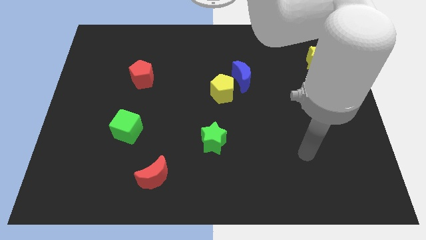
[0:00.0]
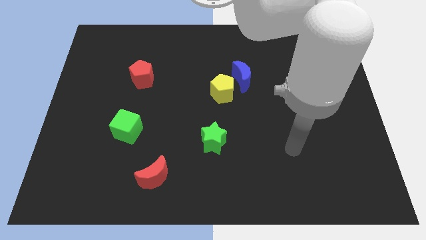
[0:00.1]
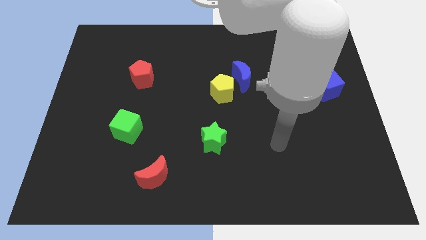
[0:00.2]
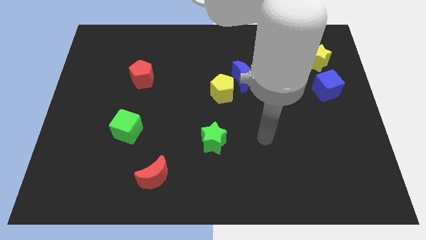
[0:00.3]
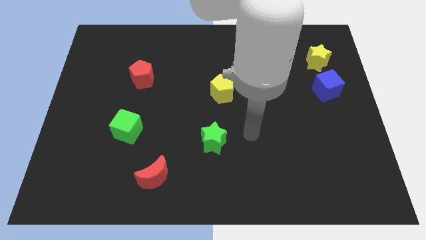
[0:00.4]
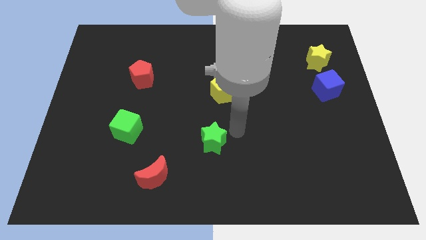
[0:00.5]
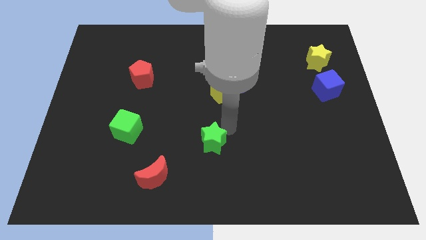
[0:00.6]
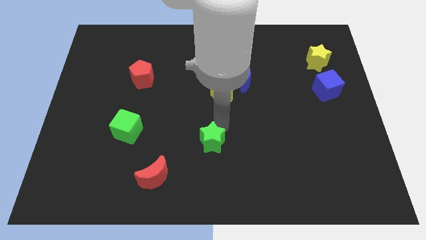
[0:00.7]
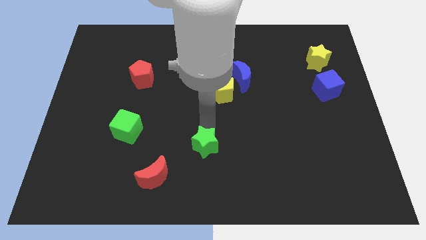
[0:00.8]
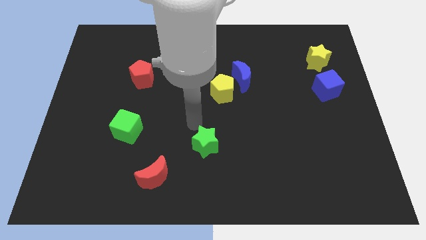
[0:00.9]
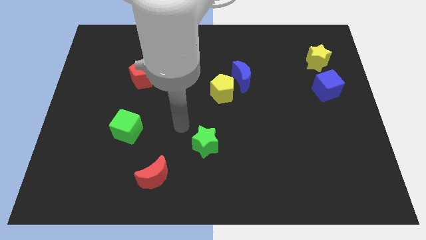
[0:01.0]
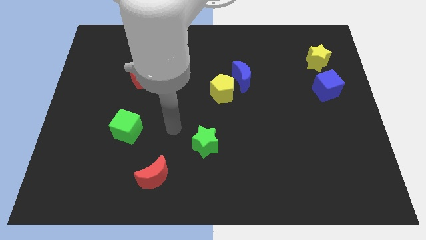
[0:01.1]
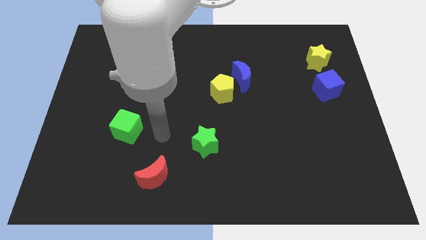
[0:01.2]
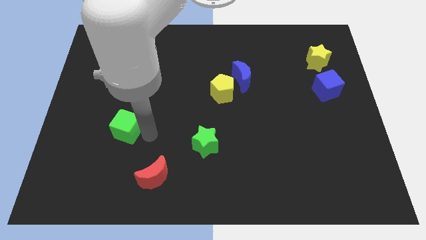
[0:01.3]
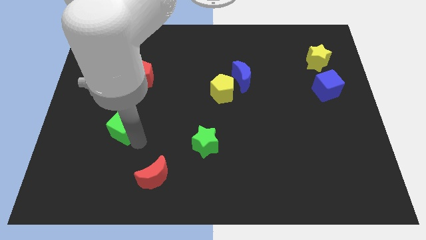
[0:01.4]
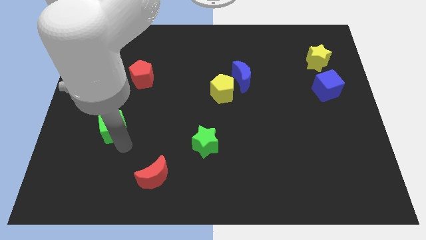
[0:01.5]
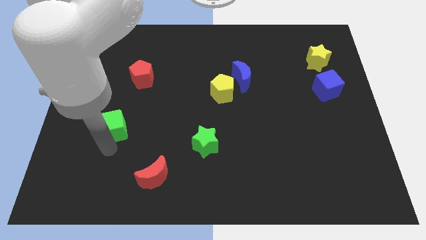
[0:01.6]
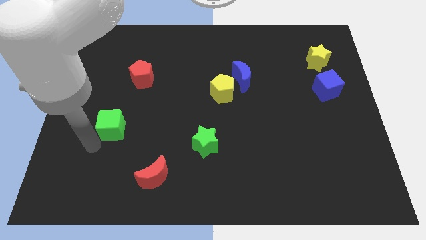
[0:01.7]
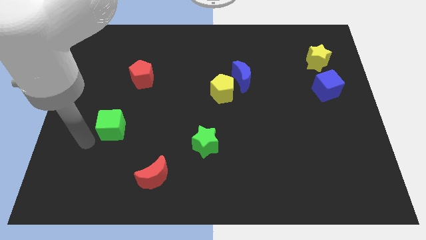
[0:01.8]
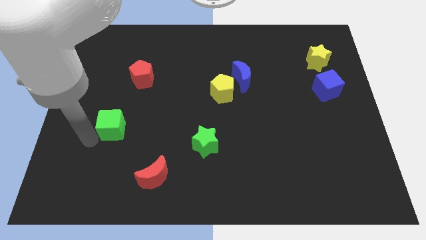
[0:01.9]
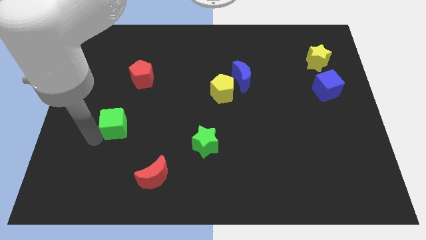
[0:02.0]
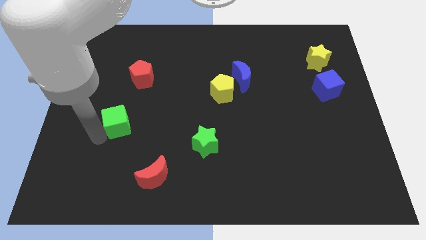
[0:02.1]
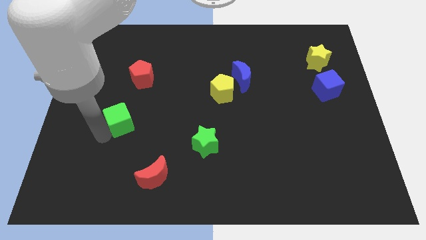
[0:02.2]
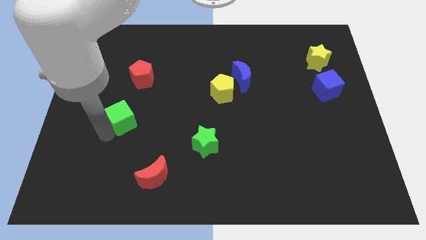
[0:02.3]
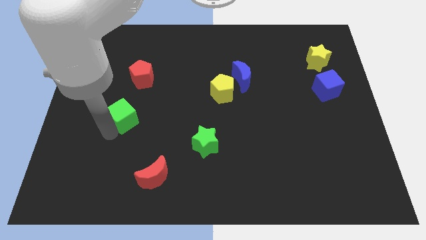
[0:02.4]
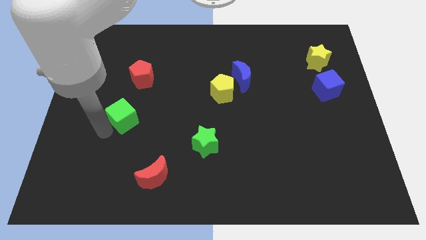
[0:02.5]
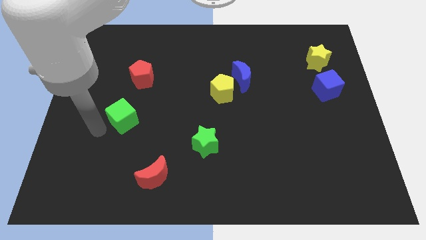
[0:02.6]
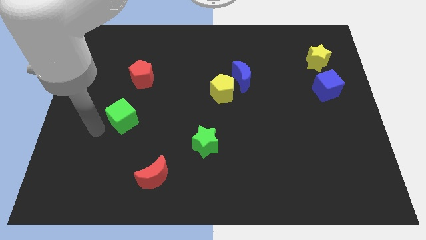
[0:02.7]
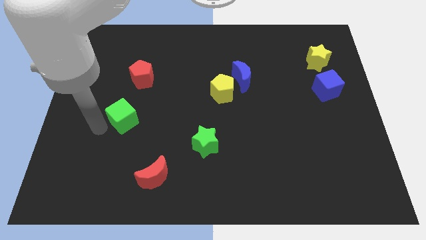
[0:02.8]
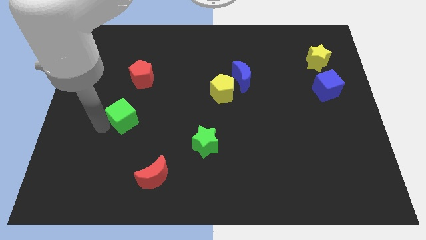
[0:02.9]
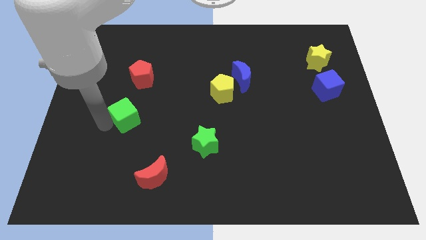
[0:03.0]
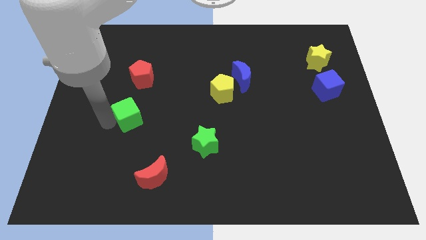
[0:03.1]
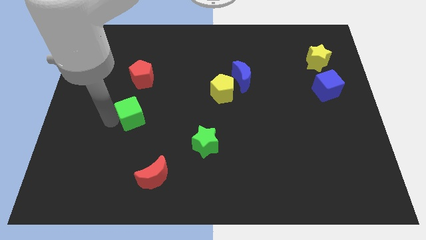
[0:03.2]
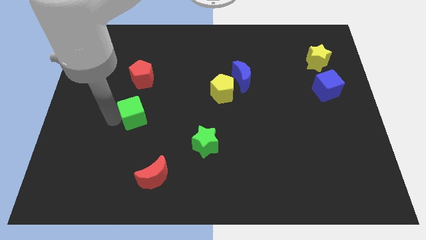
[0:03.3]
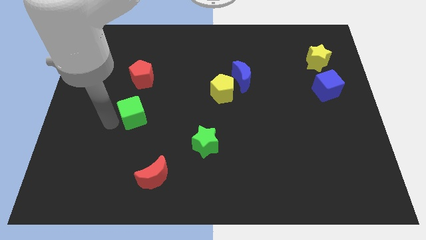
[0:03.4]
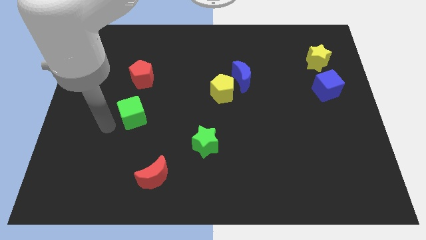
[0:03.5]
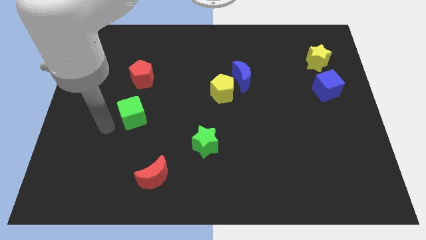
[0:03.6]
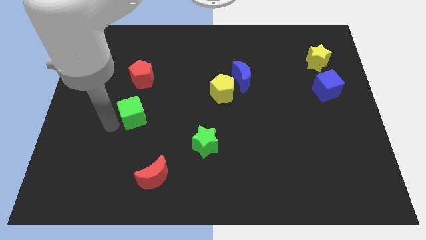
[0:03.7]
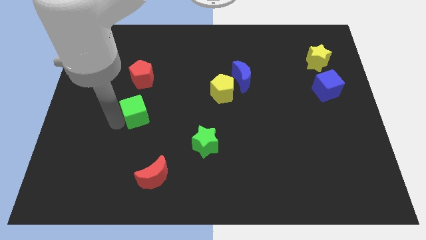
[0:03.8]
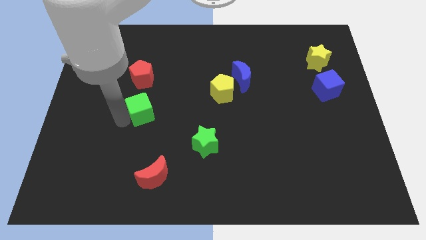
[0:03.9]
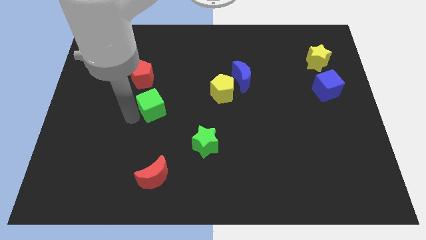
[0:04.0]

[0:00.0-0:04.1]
slightly push the green cube upwards and right diagonally

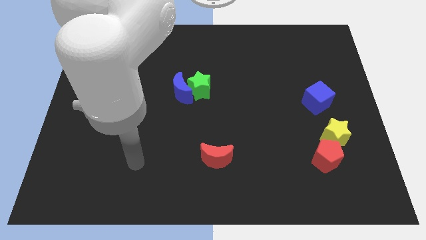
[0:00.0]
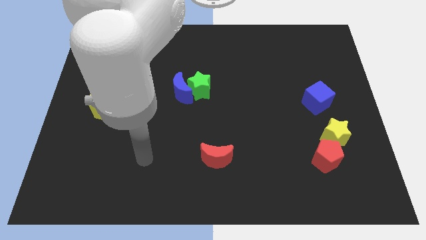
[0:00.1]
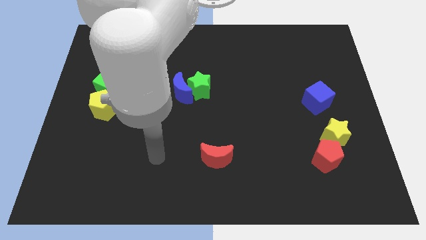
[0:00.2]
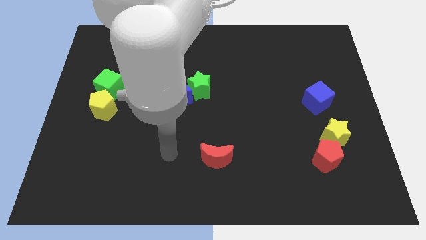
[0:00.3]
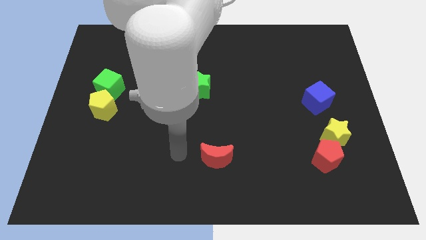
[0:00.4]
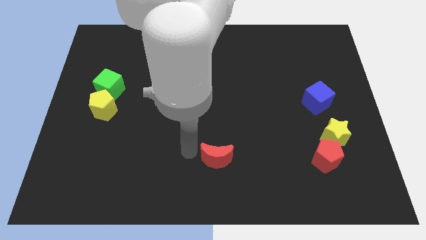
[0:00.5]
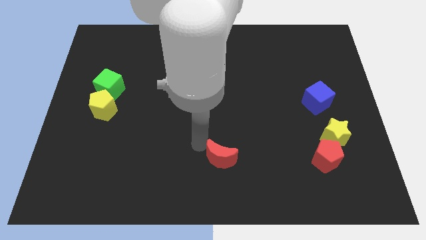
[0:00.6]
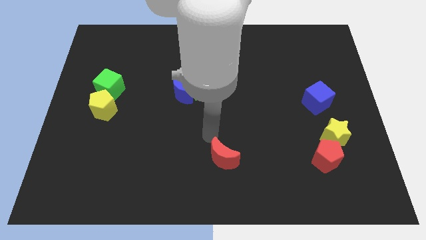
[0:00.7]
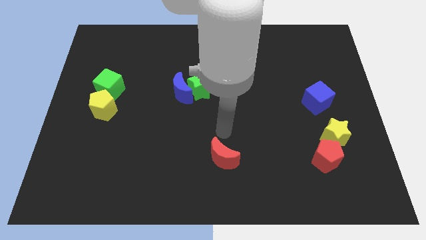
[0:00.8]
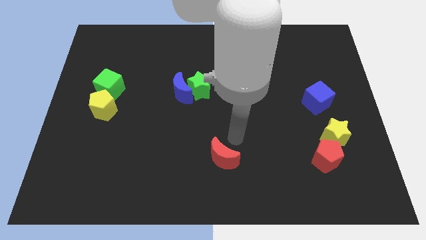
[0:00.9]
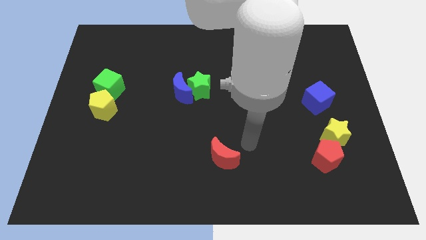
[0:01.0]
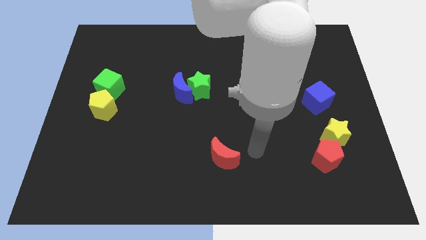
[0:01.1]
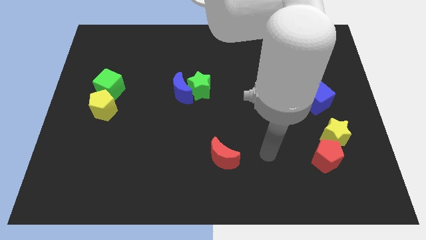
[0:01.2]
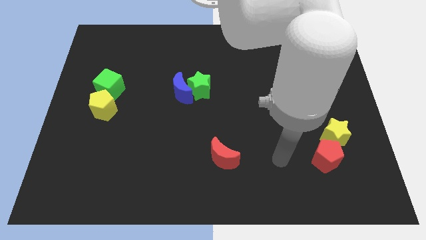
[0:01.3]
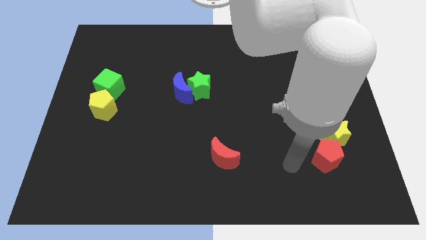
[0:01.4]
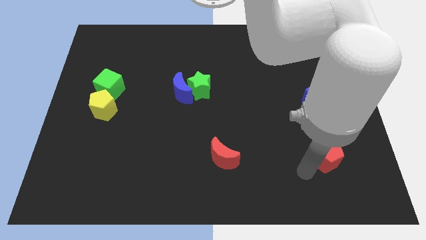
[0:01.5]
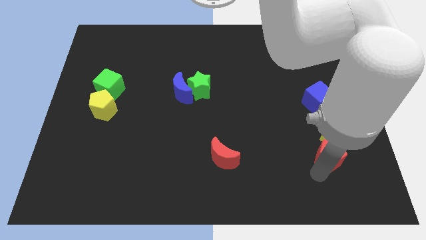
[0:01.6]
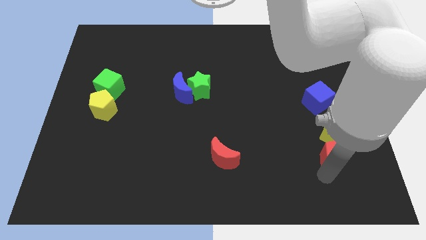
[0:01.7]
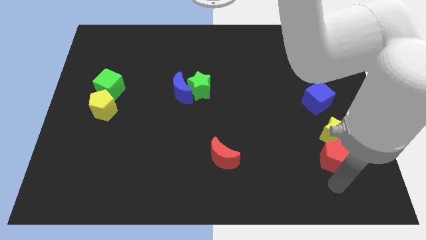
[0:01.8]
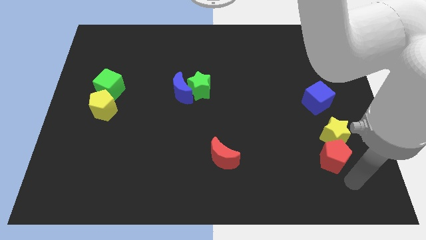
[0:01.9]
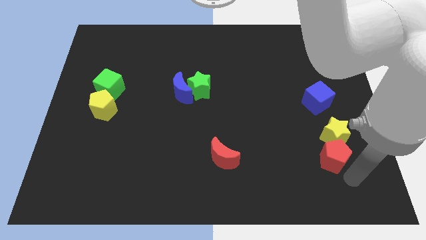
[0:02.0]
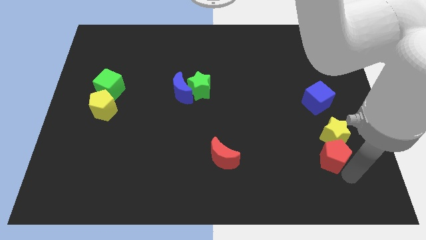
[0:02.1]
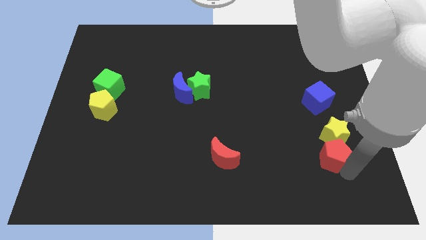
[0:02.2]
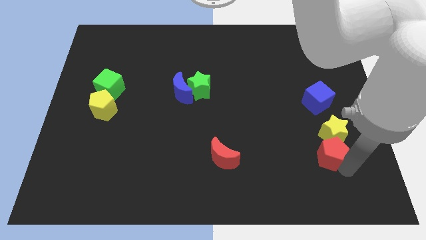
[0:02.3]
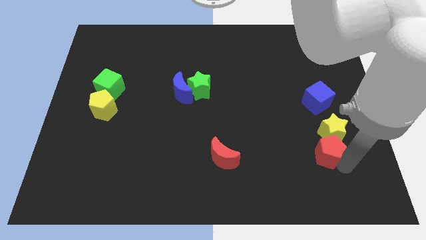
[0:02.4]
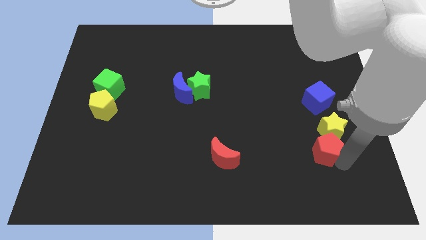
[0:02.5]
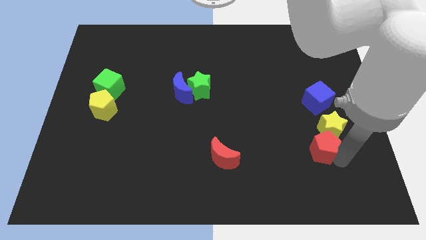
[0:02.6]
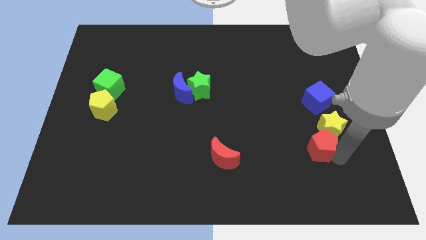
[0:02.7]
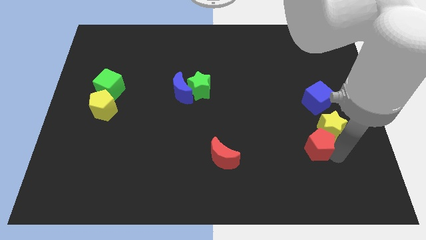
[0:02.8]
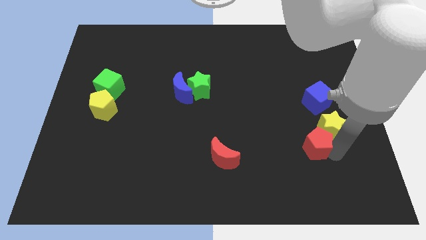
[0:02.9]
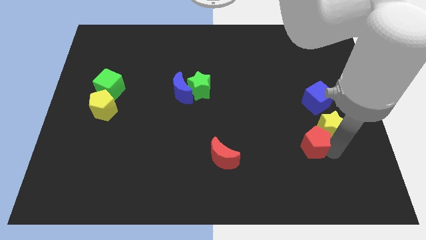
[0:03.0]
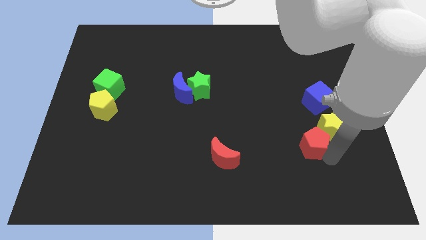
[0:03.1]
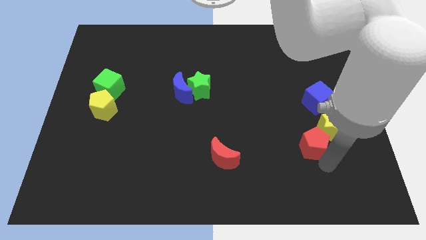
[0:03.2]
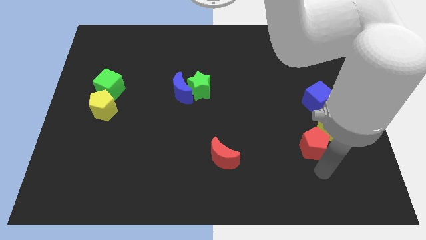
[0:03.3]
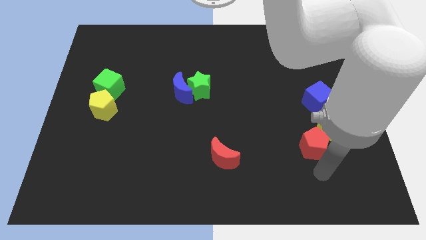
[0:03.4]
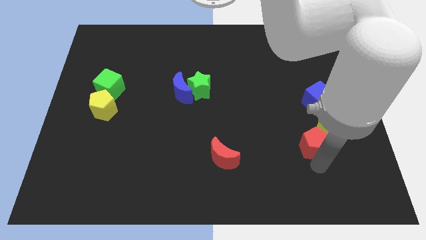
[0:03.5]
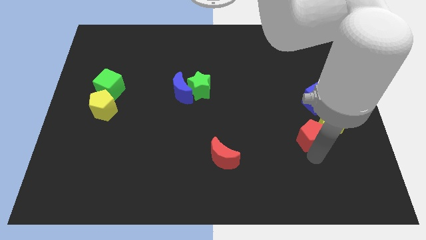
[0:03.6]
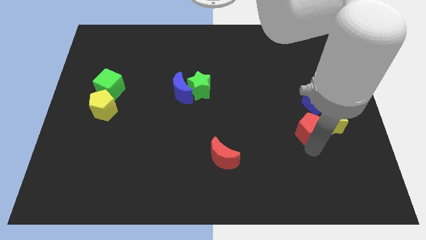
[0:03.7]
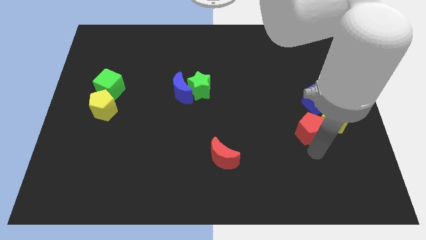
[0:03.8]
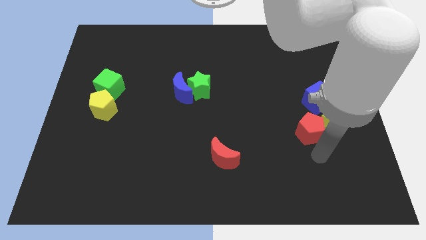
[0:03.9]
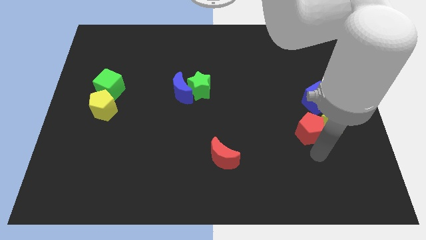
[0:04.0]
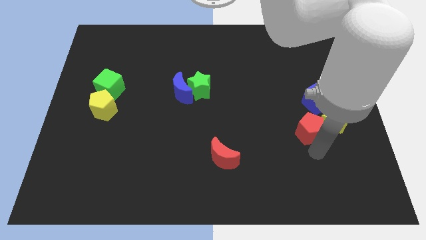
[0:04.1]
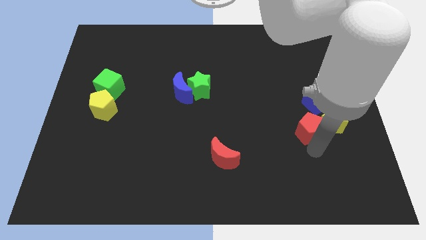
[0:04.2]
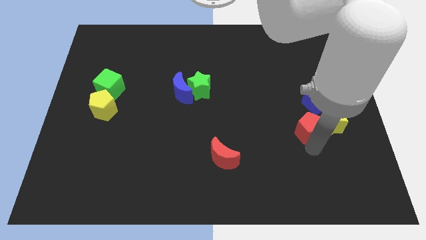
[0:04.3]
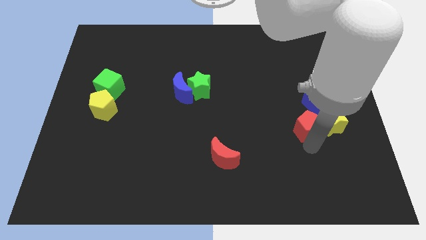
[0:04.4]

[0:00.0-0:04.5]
move the red pentagon a little bit upwards
